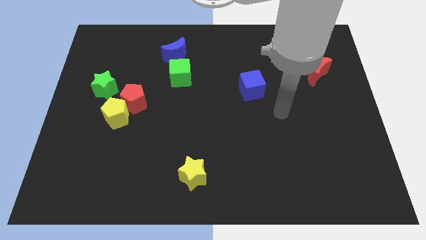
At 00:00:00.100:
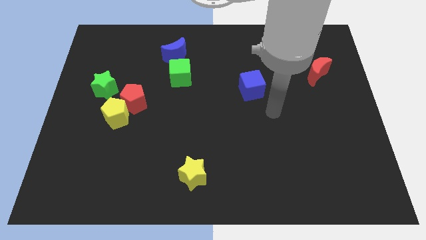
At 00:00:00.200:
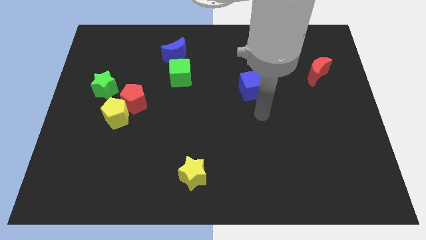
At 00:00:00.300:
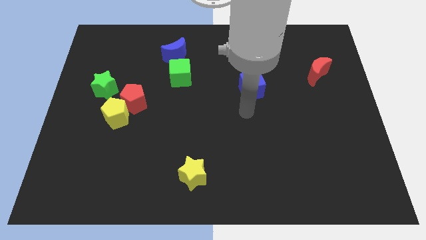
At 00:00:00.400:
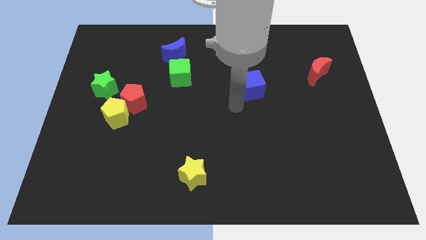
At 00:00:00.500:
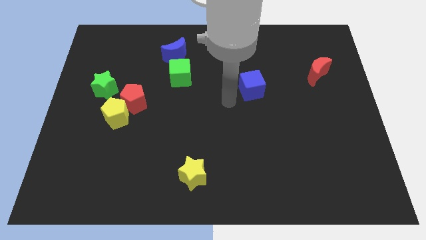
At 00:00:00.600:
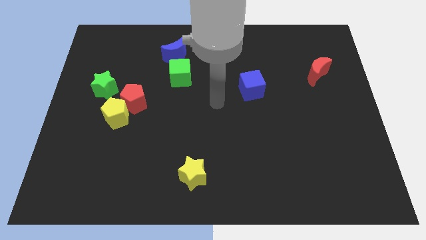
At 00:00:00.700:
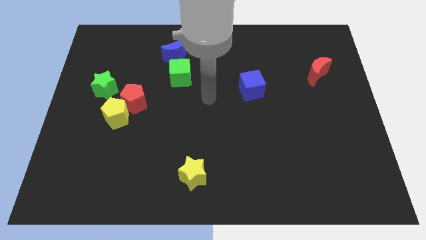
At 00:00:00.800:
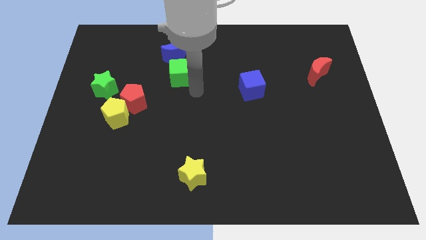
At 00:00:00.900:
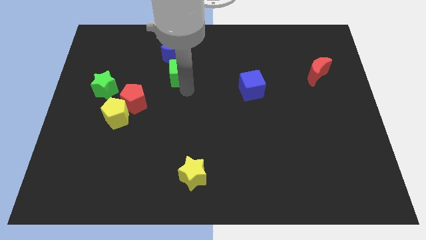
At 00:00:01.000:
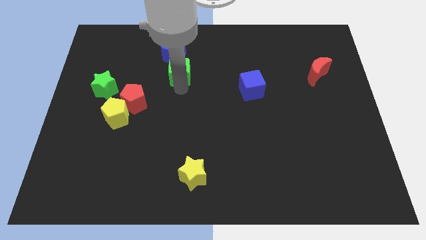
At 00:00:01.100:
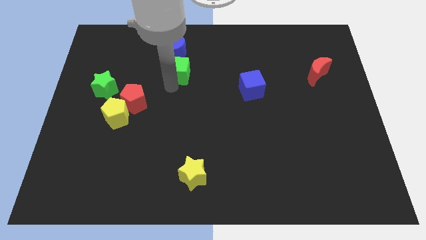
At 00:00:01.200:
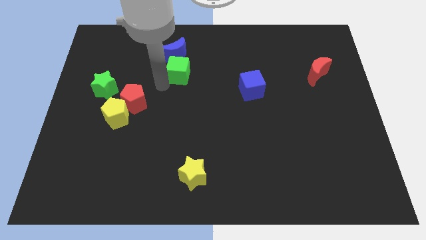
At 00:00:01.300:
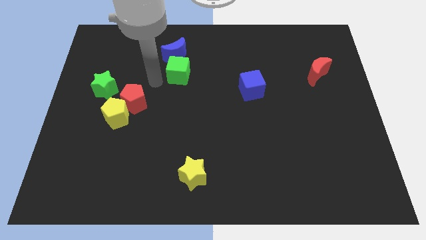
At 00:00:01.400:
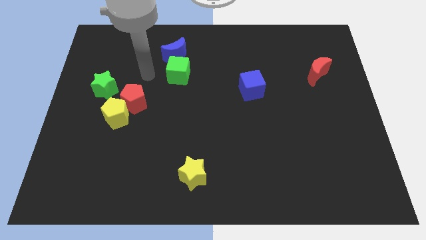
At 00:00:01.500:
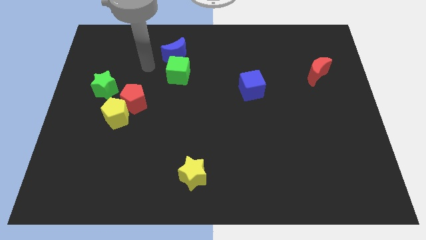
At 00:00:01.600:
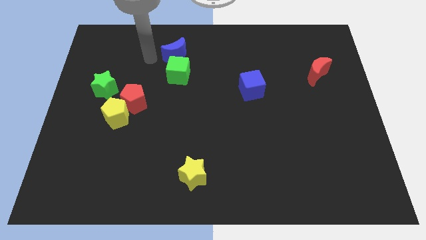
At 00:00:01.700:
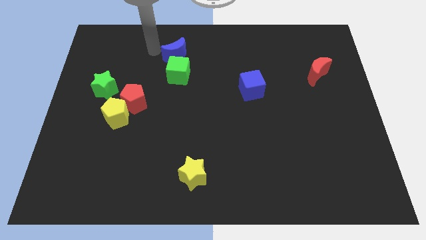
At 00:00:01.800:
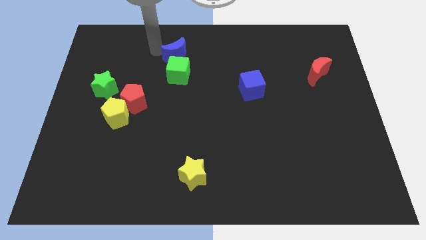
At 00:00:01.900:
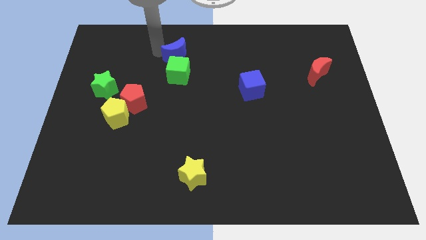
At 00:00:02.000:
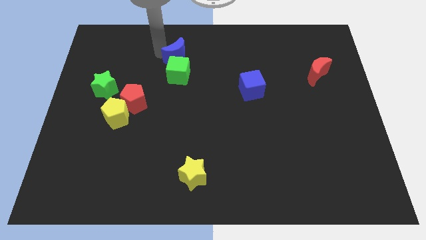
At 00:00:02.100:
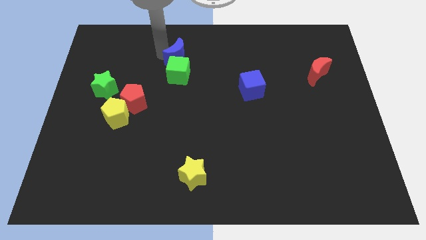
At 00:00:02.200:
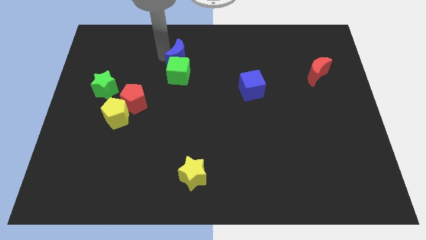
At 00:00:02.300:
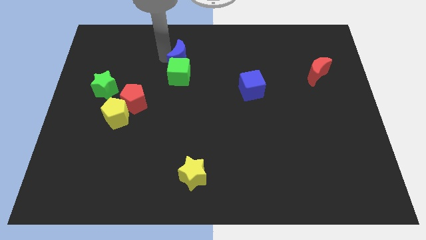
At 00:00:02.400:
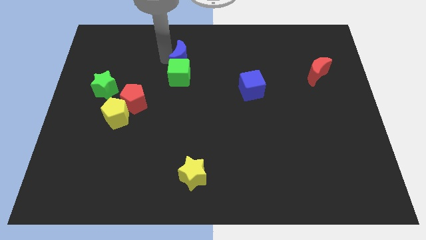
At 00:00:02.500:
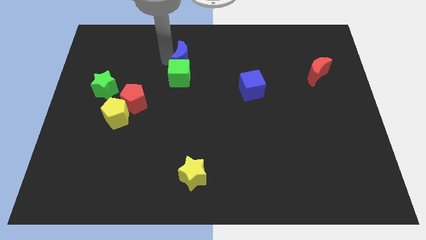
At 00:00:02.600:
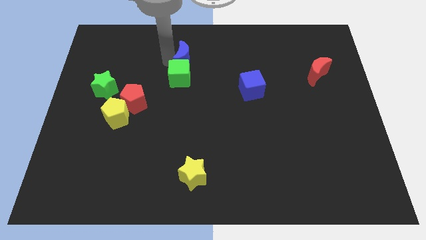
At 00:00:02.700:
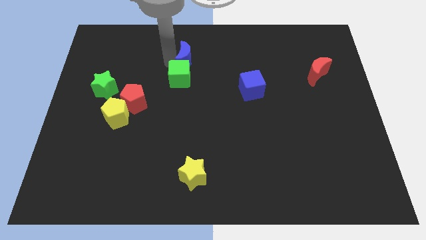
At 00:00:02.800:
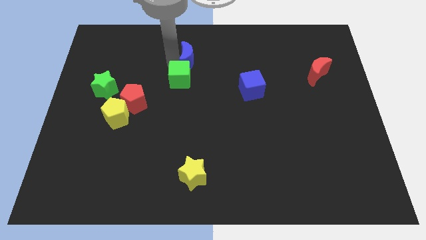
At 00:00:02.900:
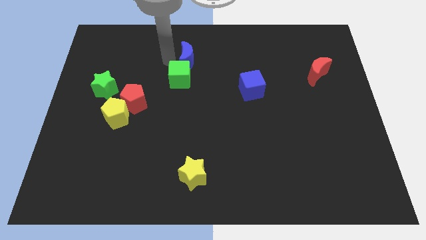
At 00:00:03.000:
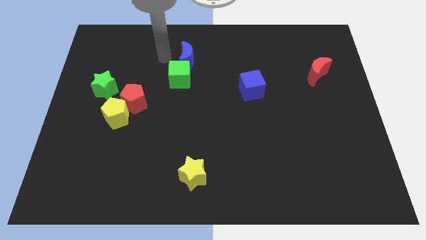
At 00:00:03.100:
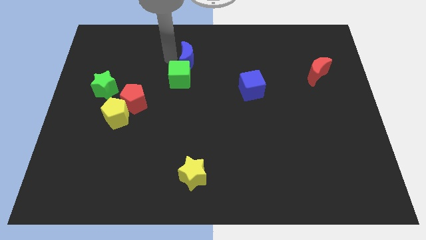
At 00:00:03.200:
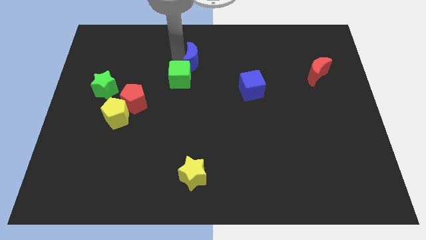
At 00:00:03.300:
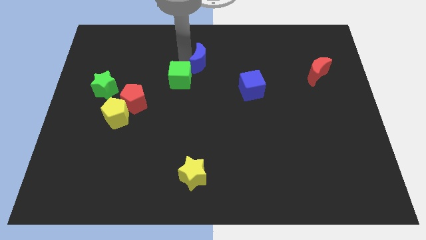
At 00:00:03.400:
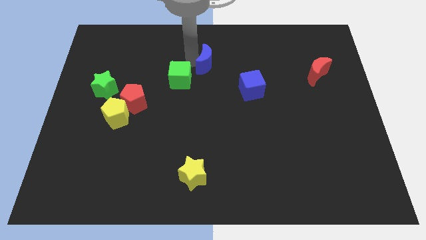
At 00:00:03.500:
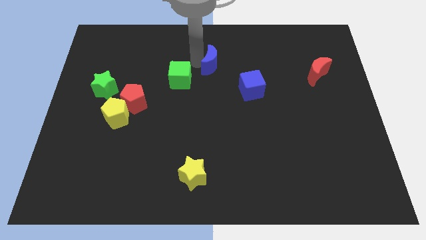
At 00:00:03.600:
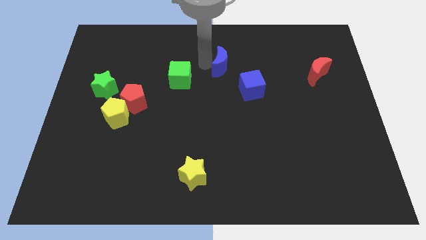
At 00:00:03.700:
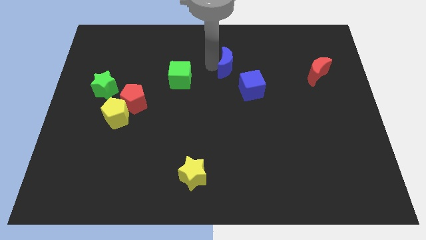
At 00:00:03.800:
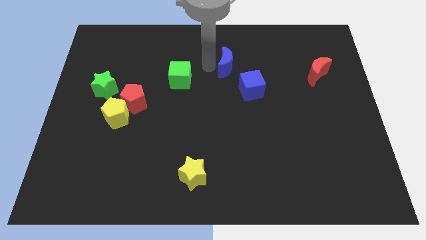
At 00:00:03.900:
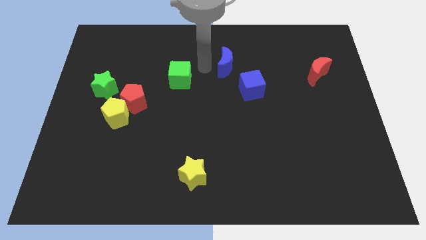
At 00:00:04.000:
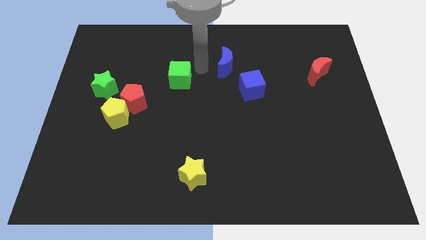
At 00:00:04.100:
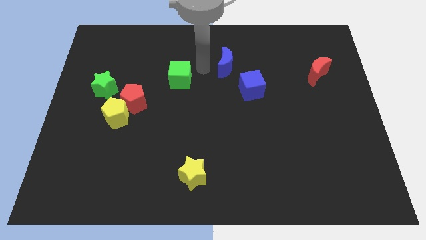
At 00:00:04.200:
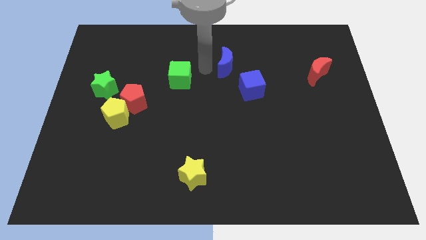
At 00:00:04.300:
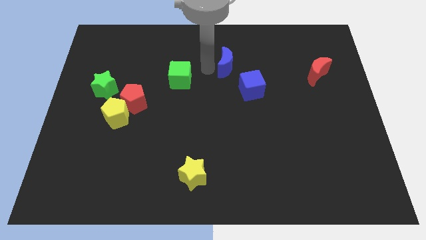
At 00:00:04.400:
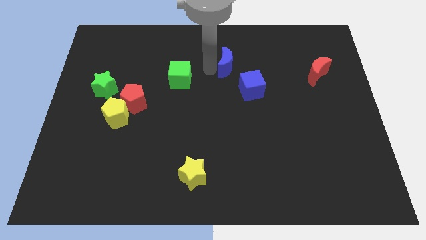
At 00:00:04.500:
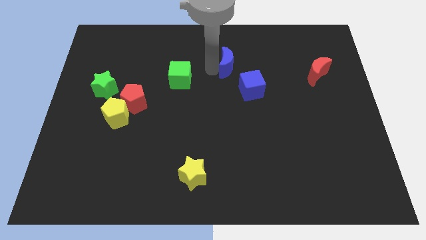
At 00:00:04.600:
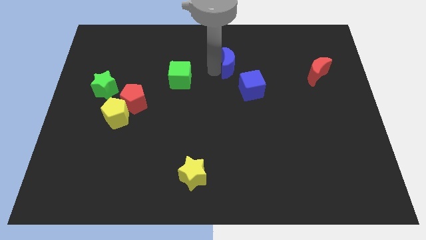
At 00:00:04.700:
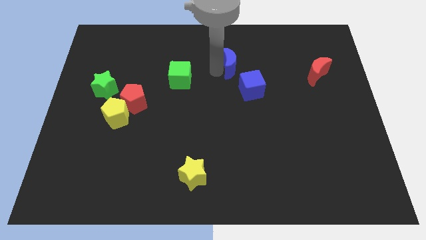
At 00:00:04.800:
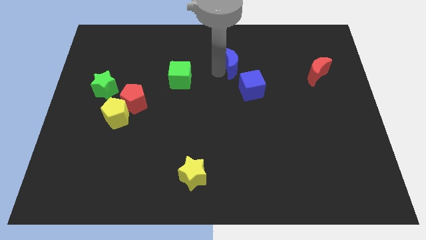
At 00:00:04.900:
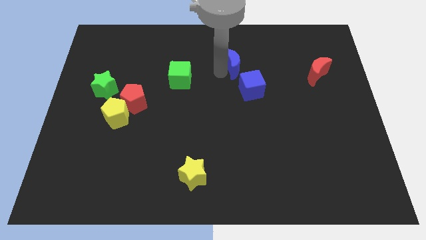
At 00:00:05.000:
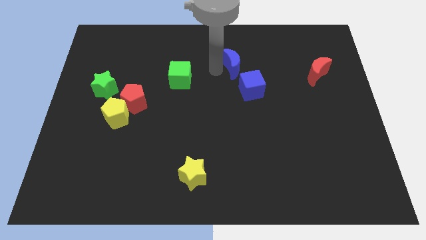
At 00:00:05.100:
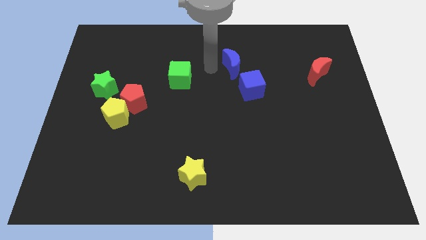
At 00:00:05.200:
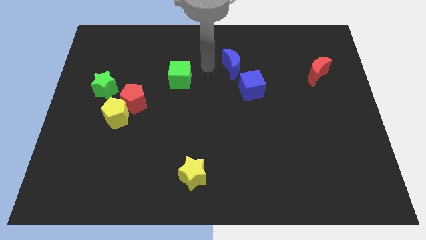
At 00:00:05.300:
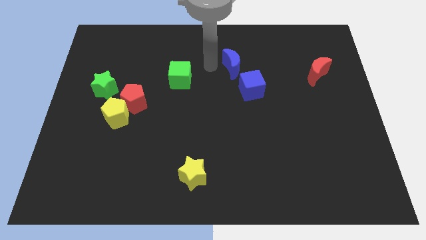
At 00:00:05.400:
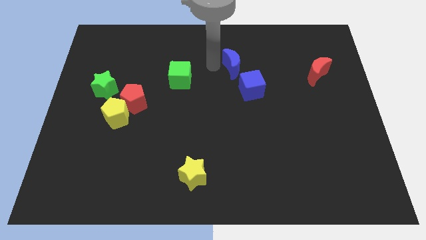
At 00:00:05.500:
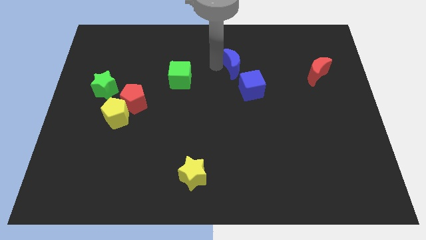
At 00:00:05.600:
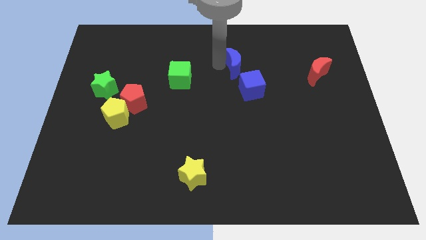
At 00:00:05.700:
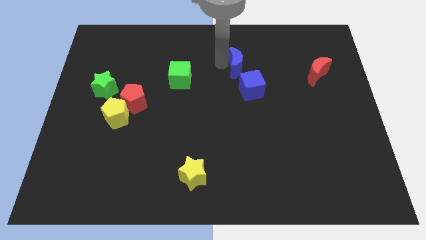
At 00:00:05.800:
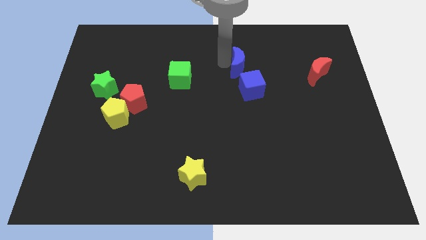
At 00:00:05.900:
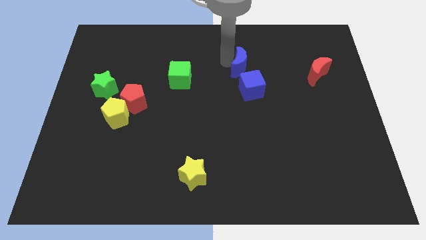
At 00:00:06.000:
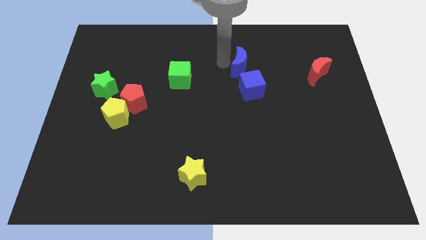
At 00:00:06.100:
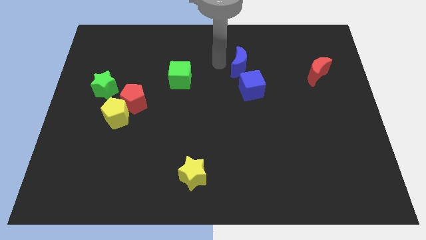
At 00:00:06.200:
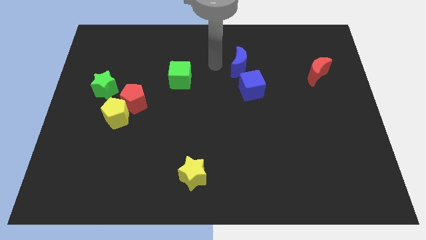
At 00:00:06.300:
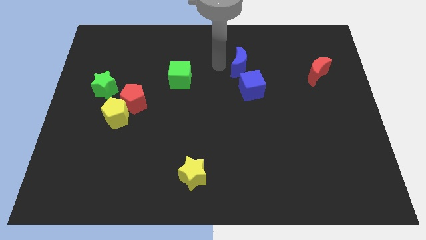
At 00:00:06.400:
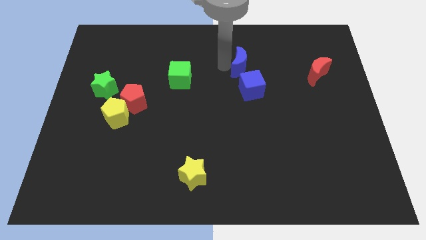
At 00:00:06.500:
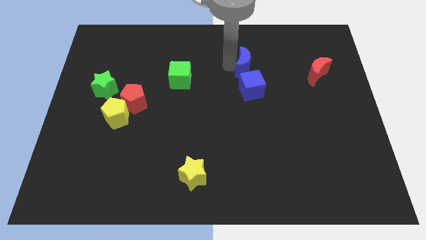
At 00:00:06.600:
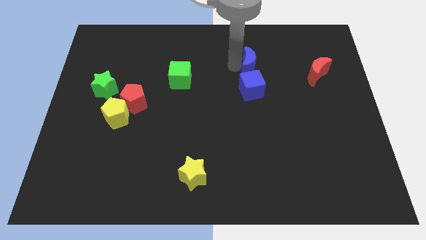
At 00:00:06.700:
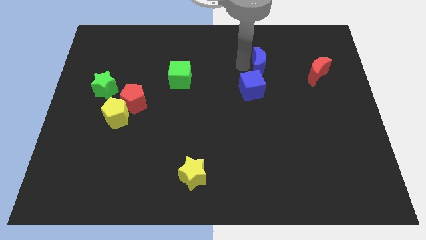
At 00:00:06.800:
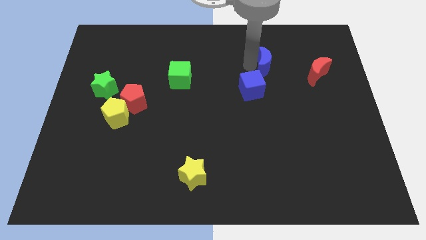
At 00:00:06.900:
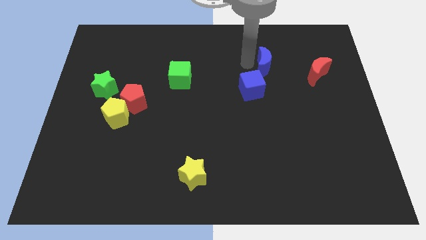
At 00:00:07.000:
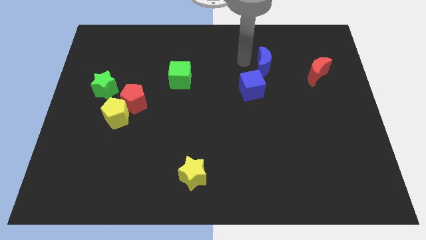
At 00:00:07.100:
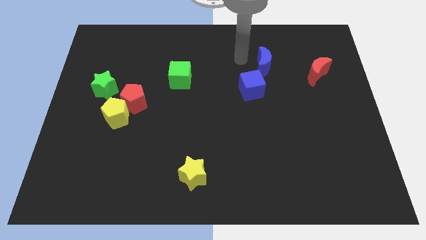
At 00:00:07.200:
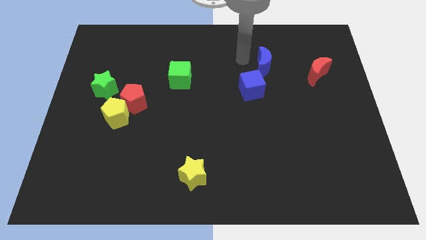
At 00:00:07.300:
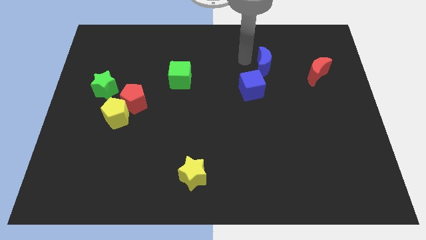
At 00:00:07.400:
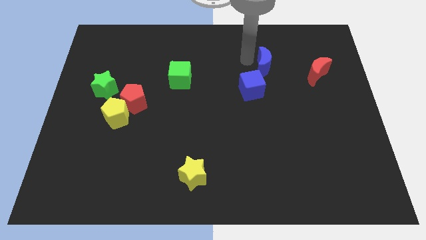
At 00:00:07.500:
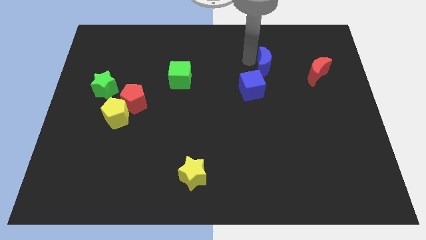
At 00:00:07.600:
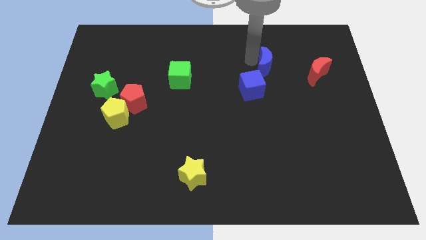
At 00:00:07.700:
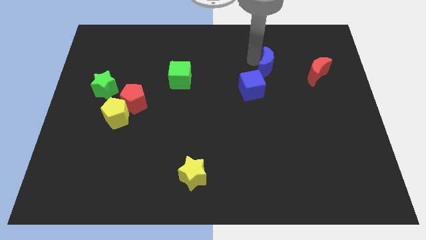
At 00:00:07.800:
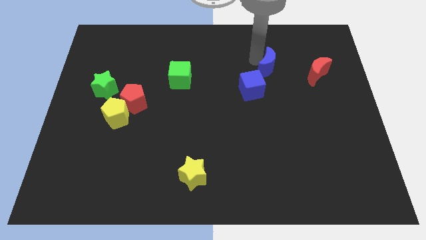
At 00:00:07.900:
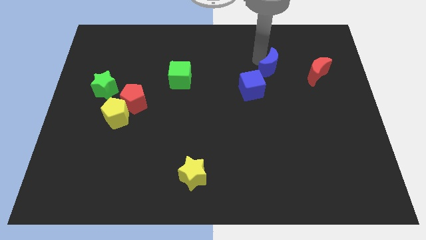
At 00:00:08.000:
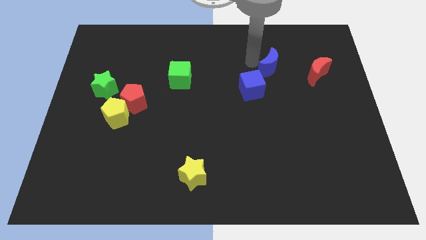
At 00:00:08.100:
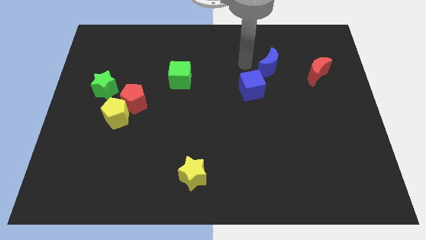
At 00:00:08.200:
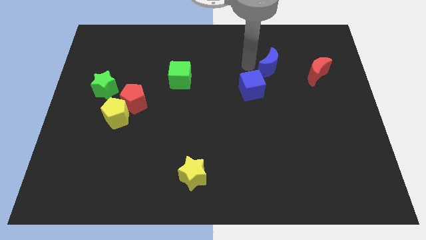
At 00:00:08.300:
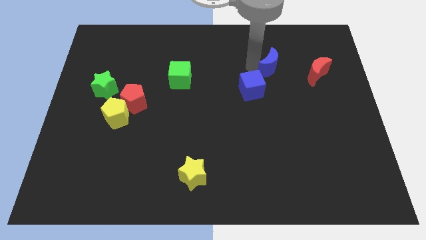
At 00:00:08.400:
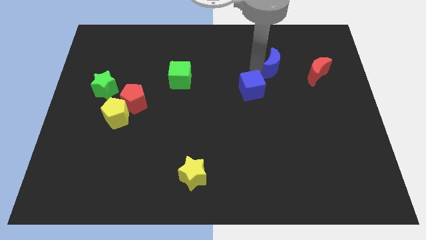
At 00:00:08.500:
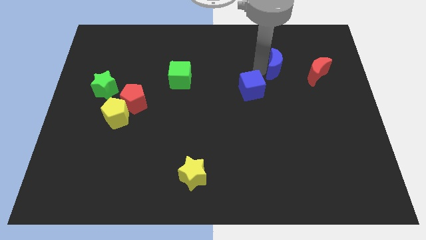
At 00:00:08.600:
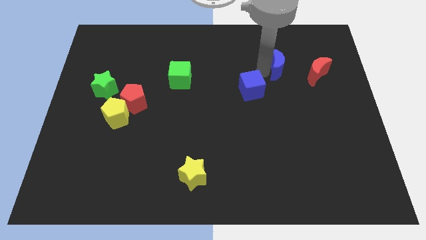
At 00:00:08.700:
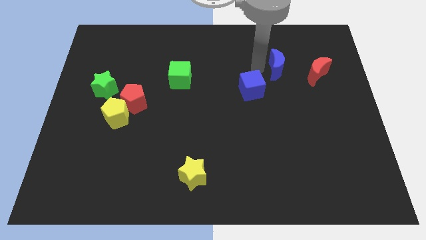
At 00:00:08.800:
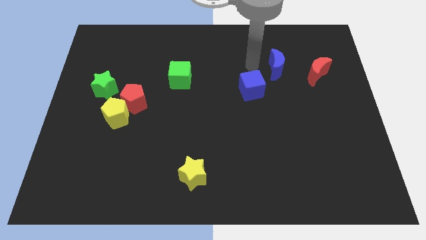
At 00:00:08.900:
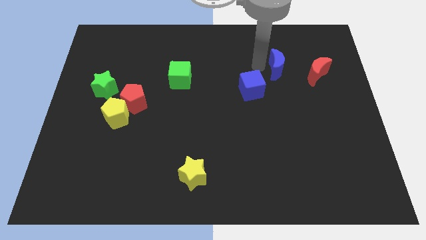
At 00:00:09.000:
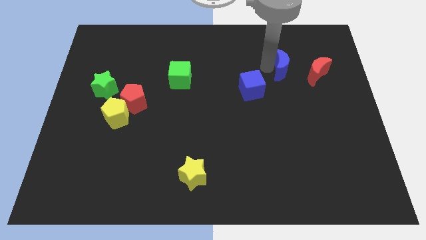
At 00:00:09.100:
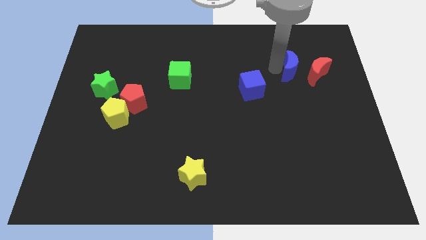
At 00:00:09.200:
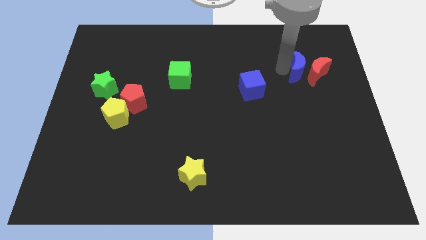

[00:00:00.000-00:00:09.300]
put the blue moon next to the red moon
